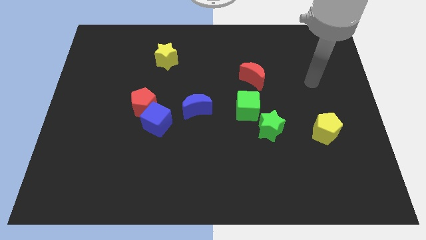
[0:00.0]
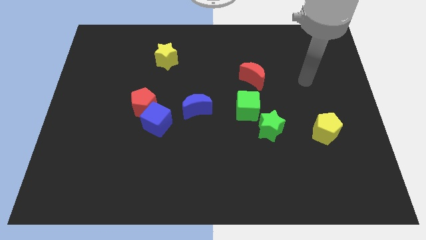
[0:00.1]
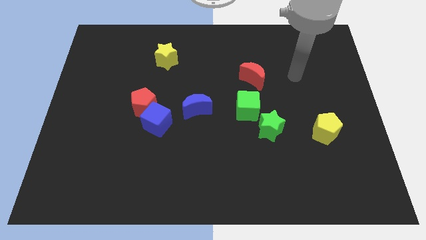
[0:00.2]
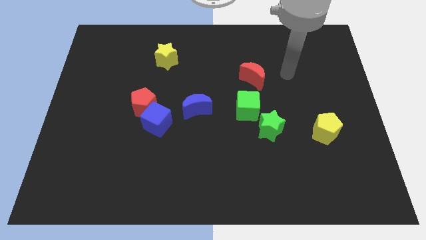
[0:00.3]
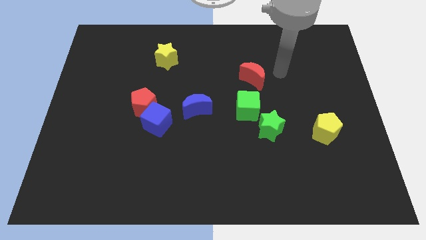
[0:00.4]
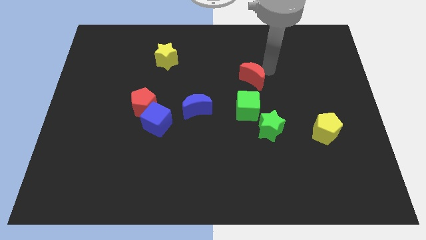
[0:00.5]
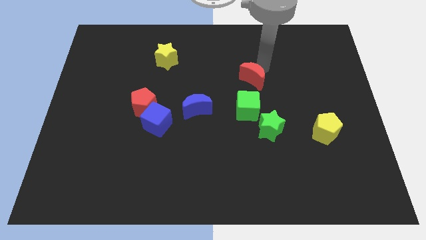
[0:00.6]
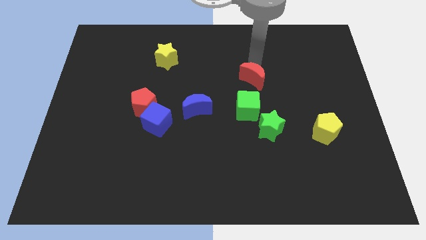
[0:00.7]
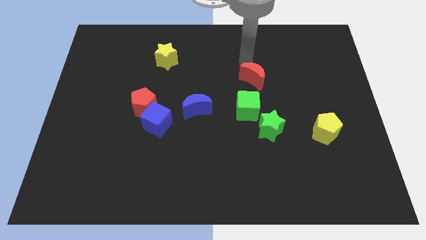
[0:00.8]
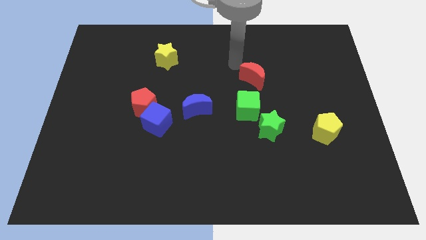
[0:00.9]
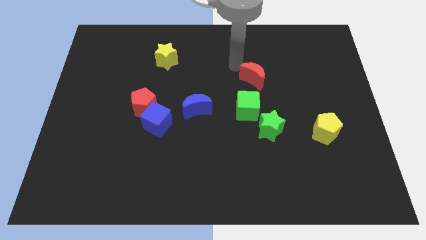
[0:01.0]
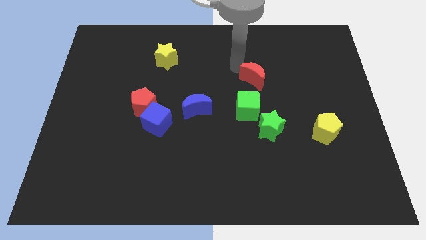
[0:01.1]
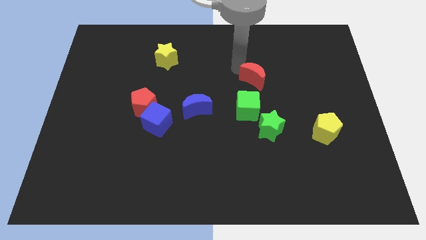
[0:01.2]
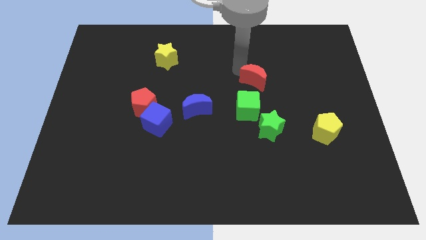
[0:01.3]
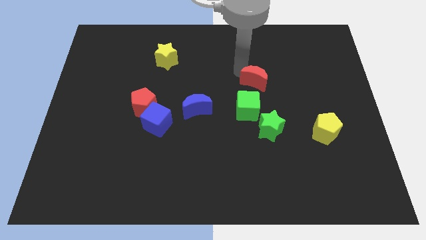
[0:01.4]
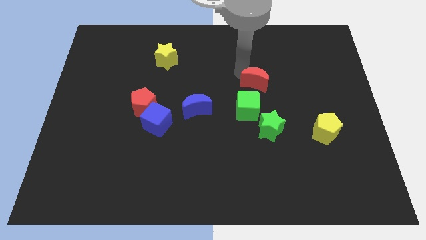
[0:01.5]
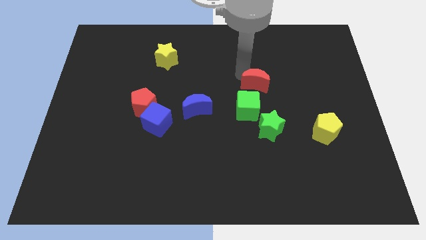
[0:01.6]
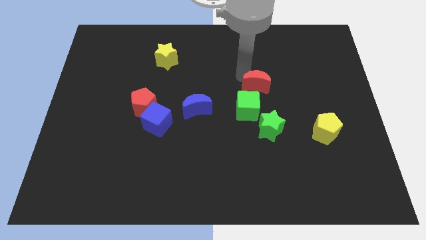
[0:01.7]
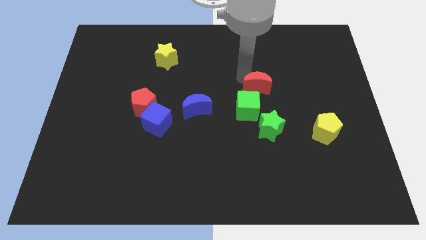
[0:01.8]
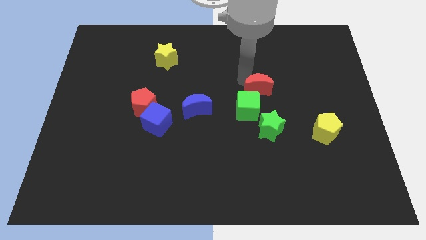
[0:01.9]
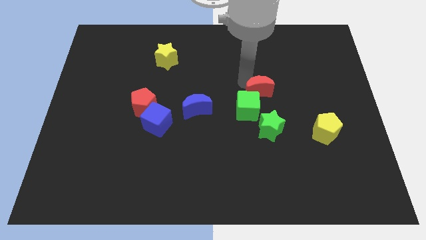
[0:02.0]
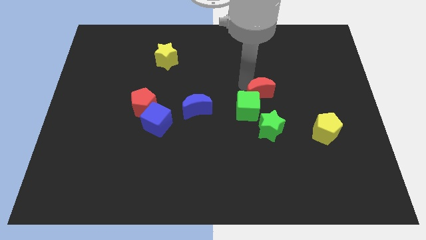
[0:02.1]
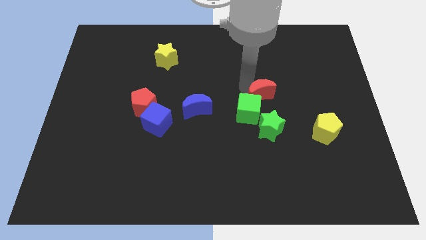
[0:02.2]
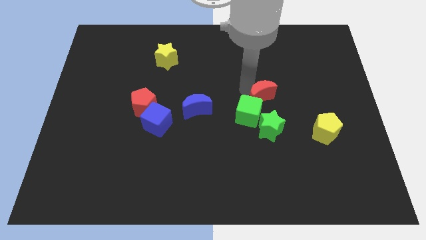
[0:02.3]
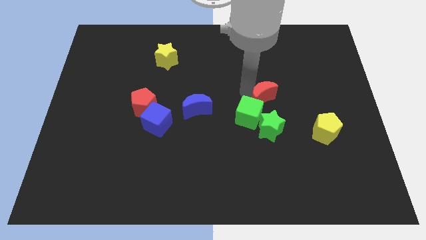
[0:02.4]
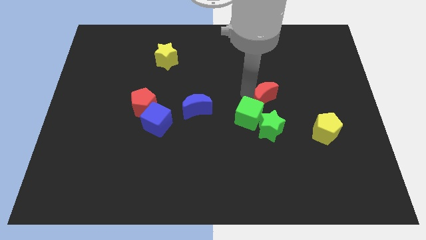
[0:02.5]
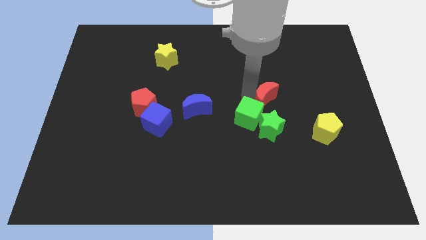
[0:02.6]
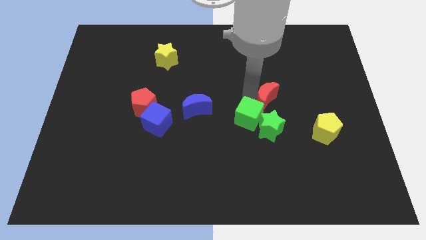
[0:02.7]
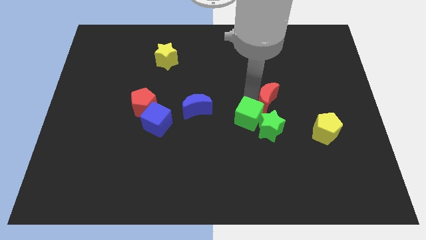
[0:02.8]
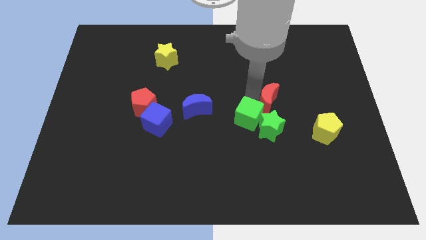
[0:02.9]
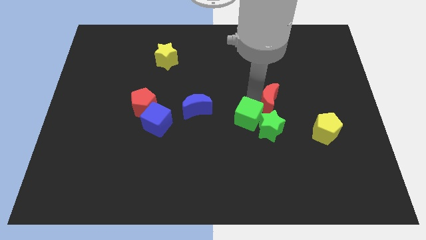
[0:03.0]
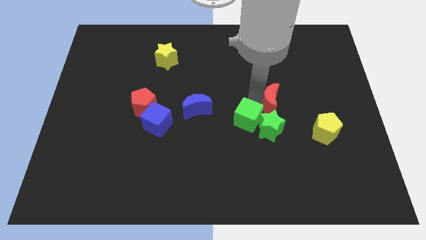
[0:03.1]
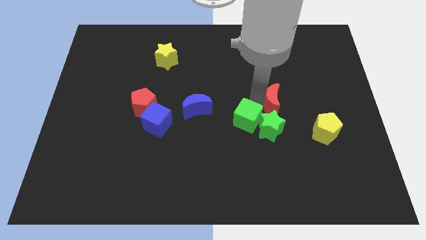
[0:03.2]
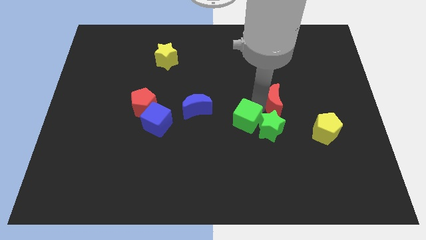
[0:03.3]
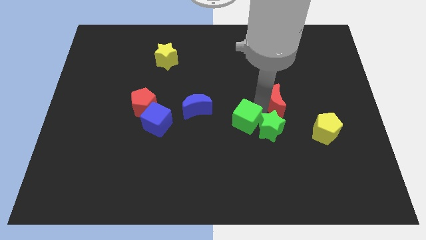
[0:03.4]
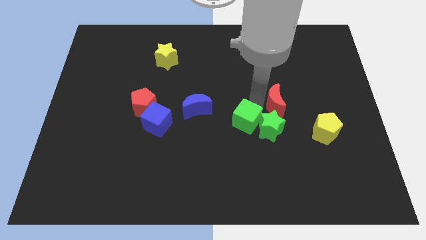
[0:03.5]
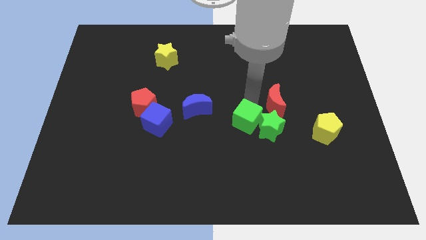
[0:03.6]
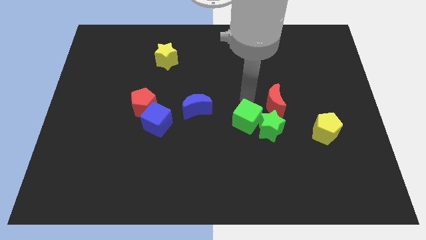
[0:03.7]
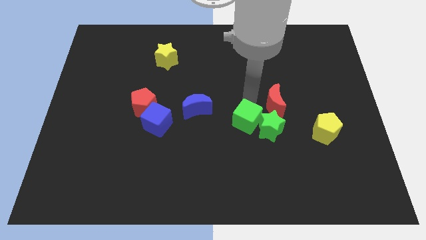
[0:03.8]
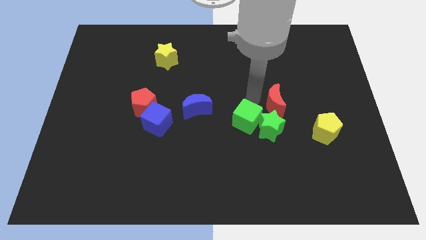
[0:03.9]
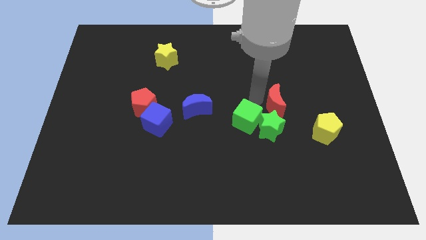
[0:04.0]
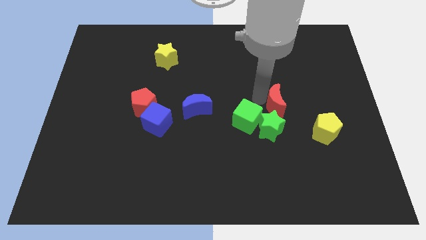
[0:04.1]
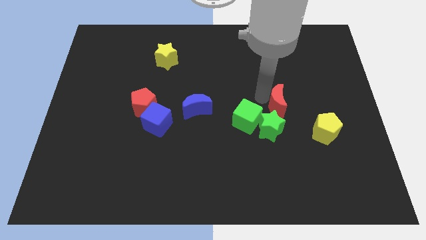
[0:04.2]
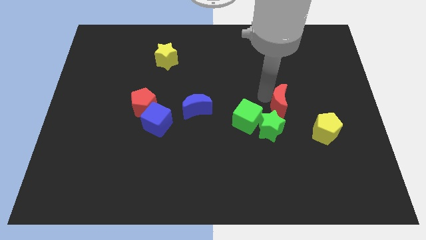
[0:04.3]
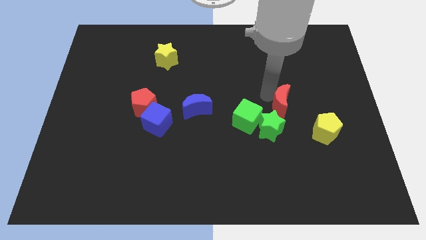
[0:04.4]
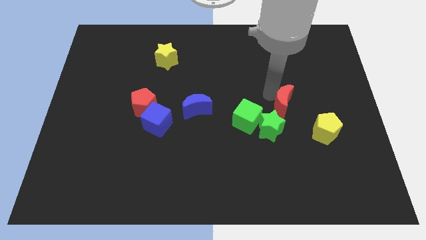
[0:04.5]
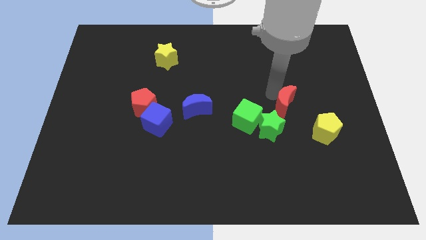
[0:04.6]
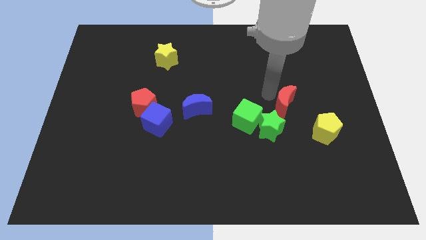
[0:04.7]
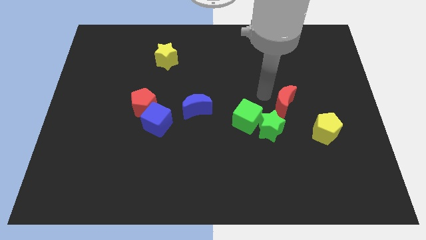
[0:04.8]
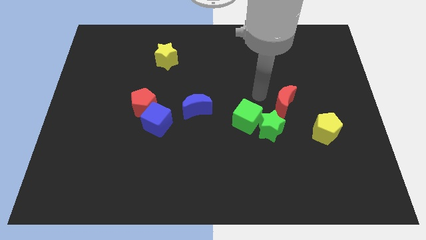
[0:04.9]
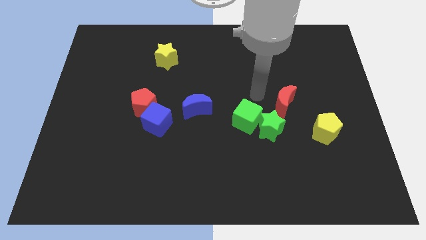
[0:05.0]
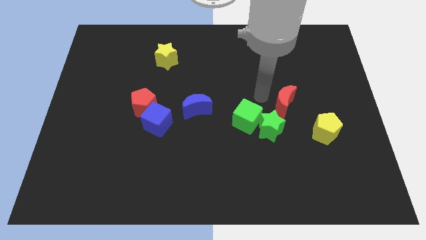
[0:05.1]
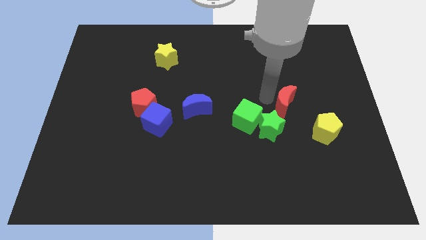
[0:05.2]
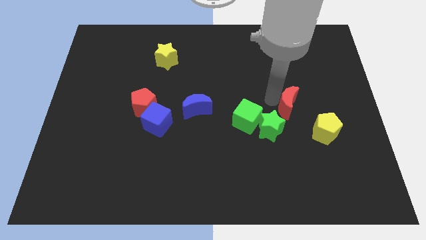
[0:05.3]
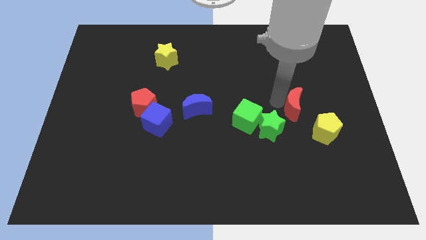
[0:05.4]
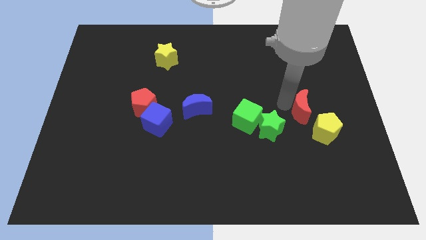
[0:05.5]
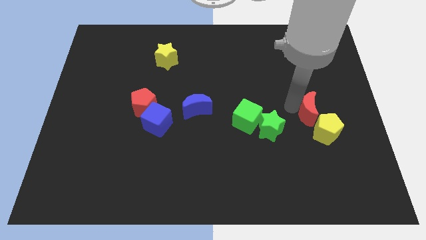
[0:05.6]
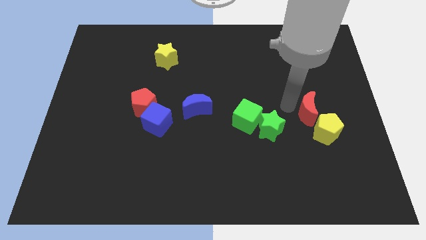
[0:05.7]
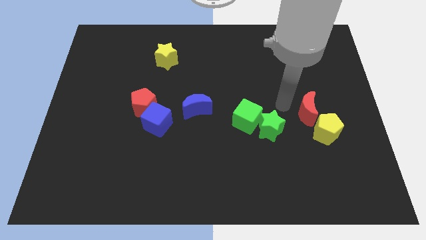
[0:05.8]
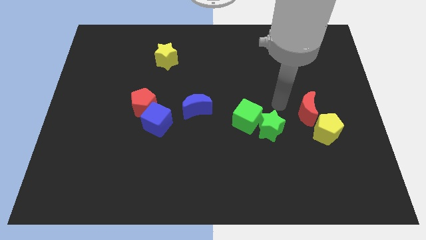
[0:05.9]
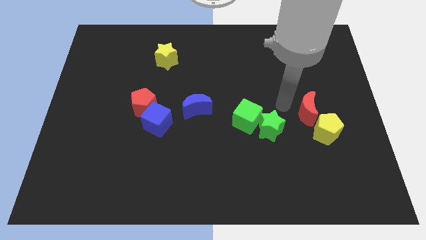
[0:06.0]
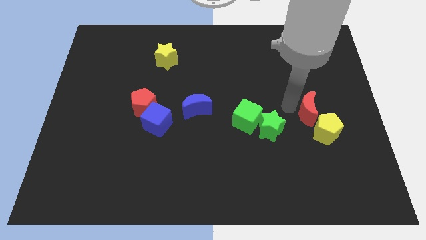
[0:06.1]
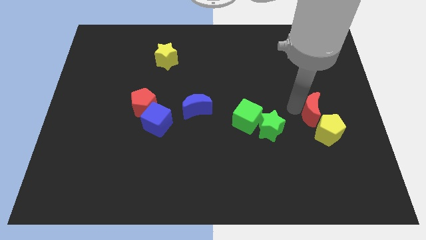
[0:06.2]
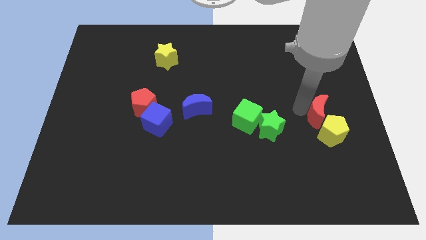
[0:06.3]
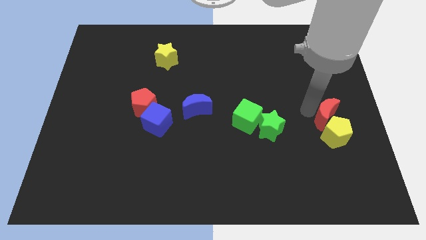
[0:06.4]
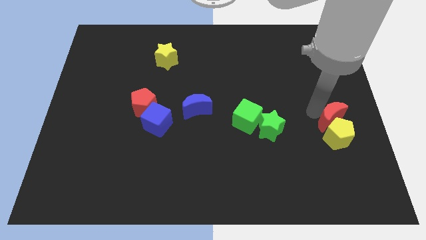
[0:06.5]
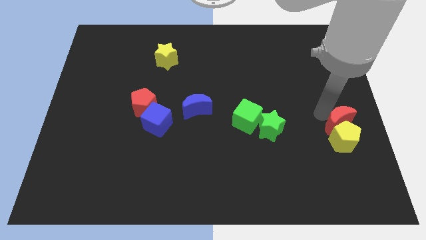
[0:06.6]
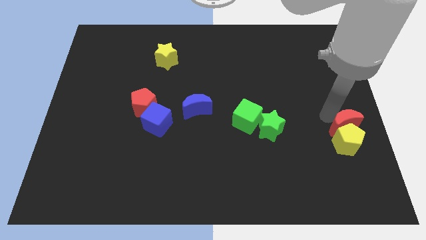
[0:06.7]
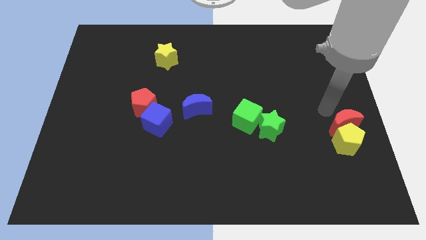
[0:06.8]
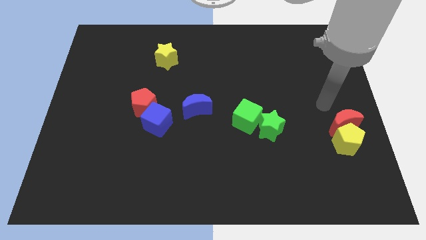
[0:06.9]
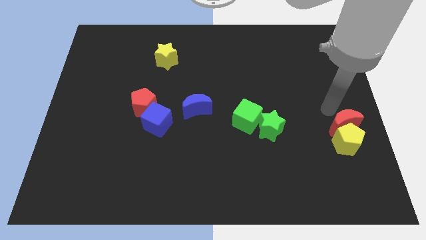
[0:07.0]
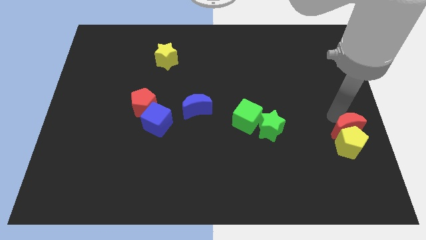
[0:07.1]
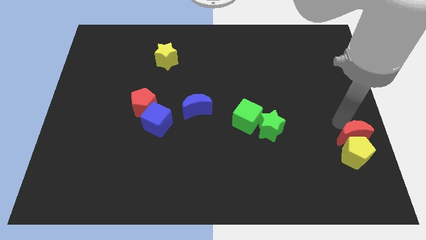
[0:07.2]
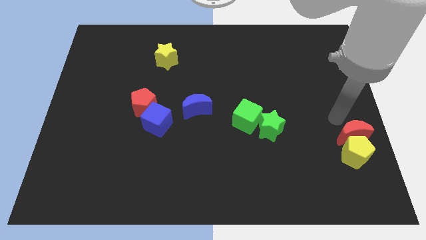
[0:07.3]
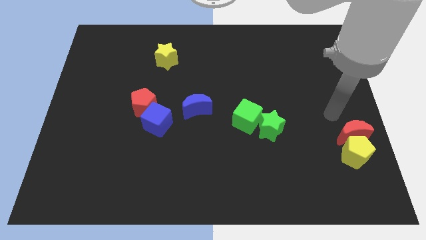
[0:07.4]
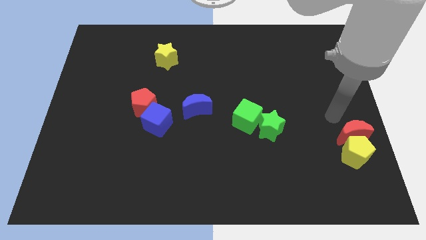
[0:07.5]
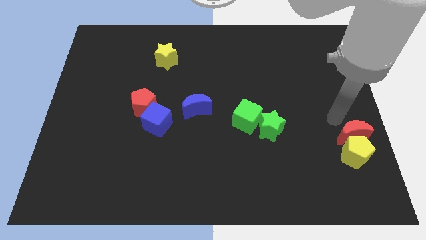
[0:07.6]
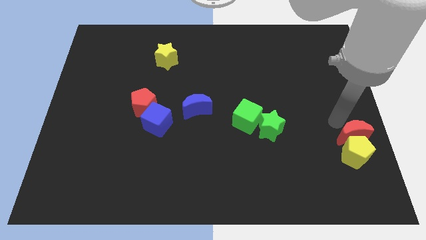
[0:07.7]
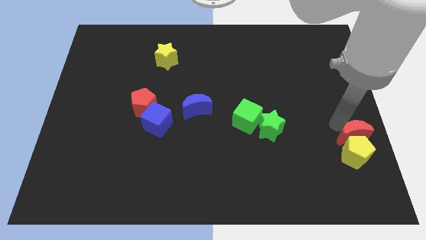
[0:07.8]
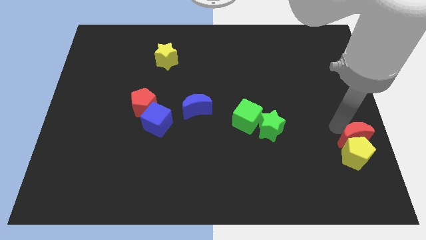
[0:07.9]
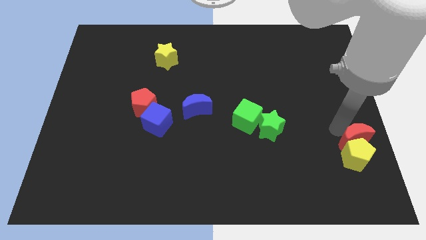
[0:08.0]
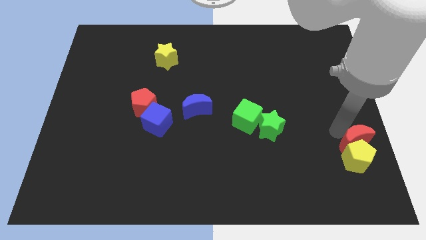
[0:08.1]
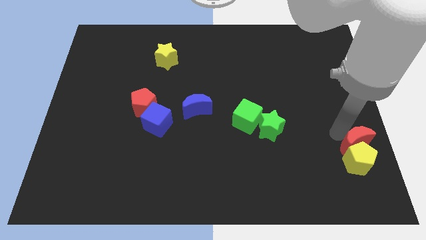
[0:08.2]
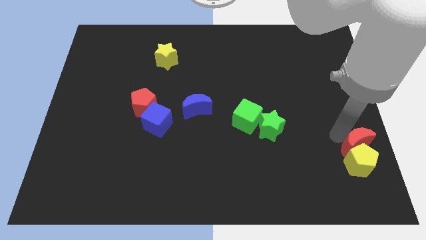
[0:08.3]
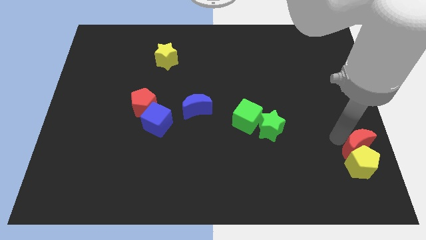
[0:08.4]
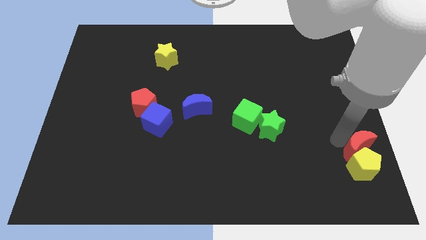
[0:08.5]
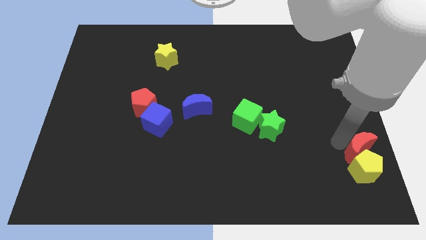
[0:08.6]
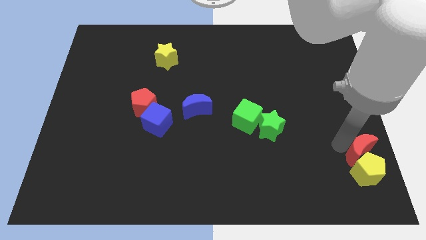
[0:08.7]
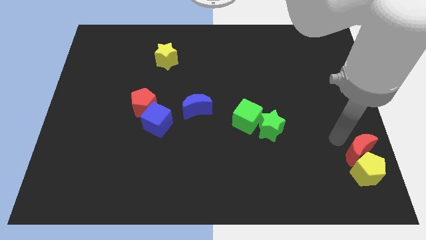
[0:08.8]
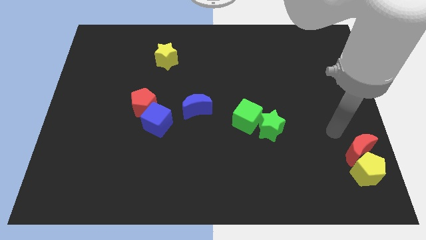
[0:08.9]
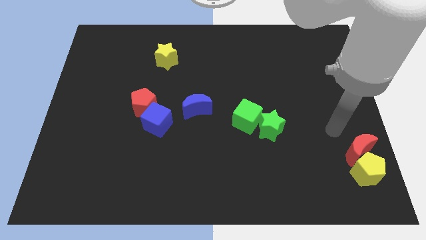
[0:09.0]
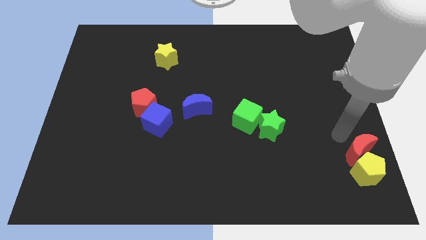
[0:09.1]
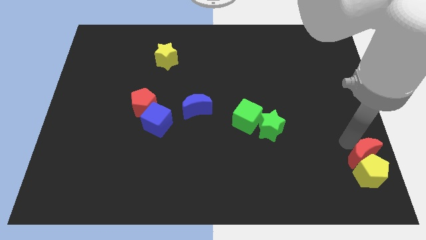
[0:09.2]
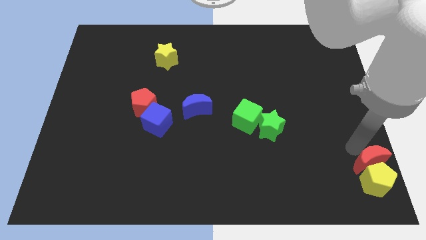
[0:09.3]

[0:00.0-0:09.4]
move the red moon to the bottom right of the board
